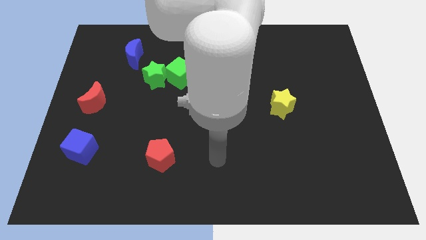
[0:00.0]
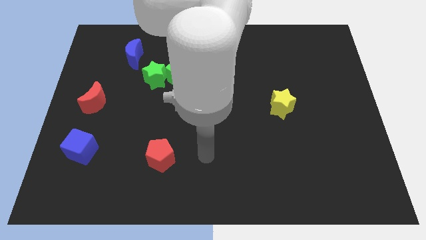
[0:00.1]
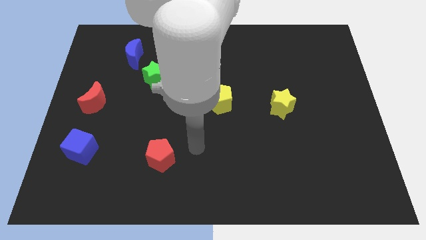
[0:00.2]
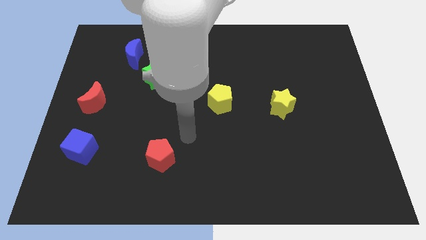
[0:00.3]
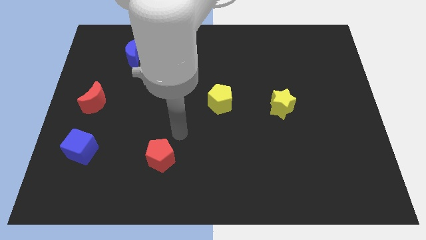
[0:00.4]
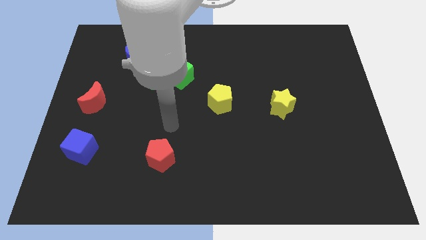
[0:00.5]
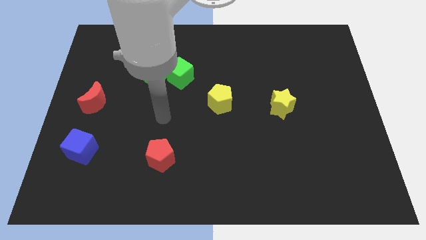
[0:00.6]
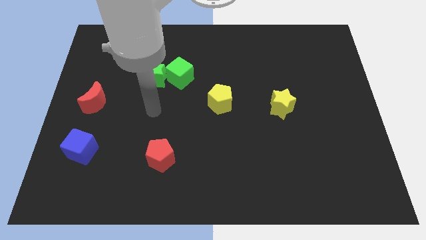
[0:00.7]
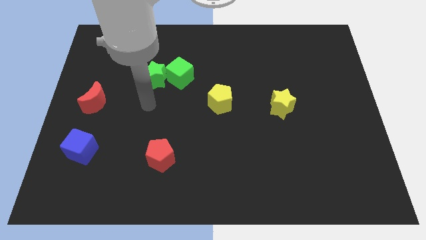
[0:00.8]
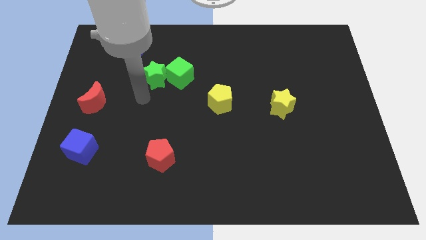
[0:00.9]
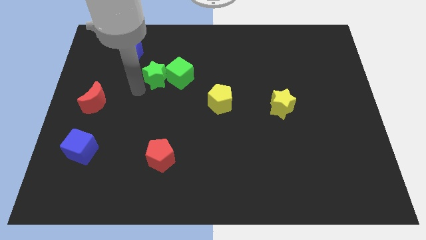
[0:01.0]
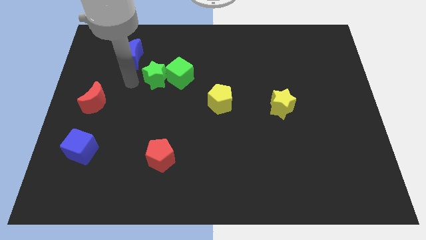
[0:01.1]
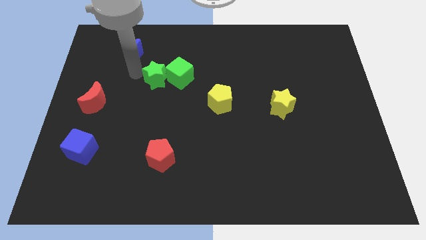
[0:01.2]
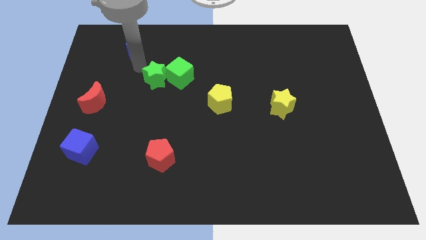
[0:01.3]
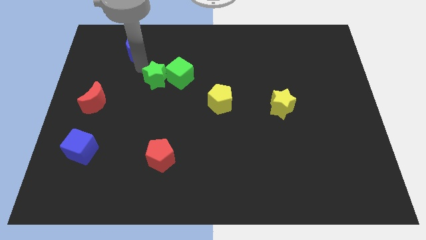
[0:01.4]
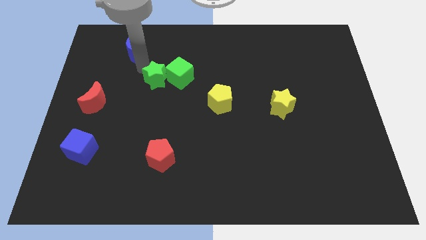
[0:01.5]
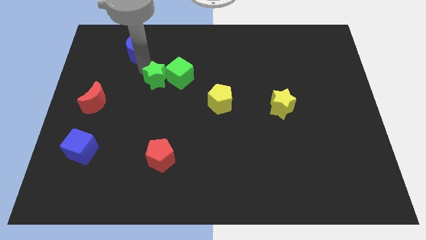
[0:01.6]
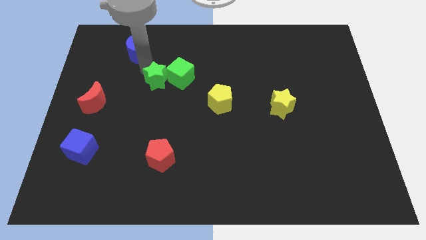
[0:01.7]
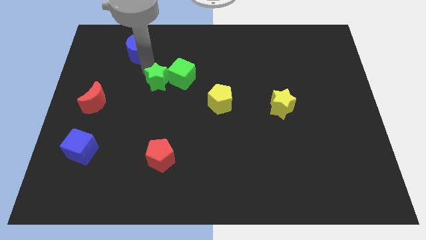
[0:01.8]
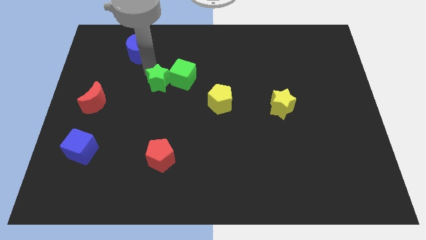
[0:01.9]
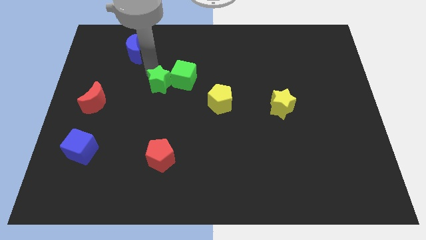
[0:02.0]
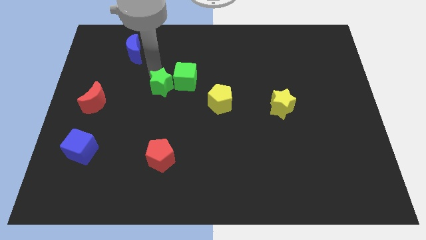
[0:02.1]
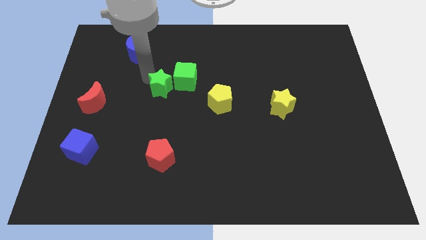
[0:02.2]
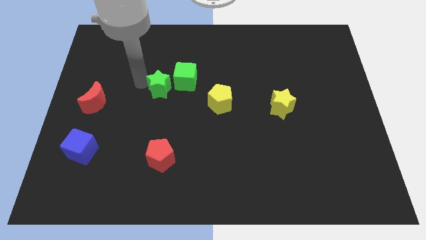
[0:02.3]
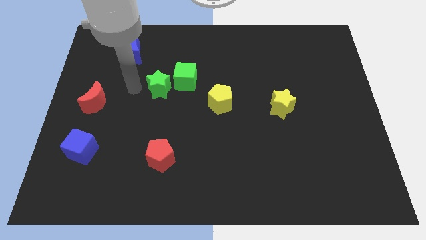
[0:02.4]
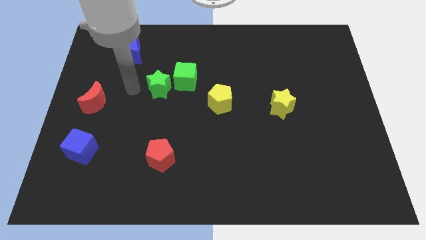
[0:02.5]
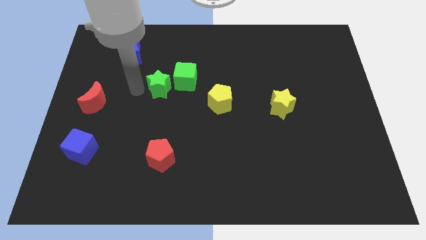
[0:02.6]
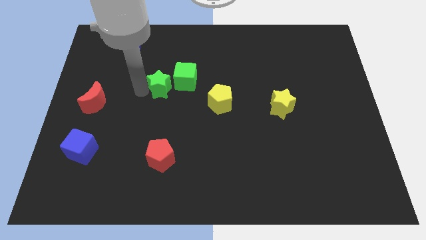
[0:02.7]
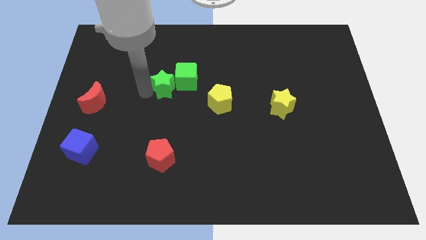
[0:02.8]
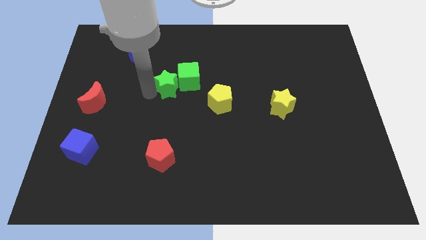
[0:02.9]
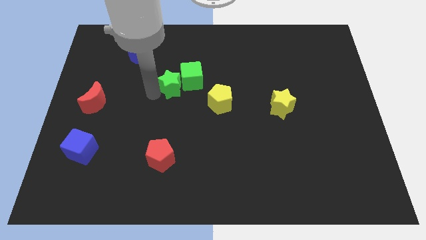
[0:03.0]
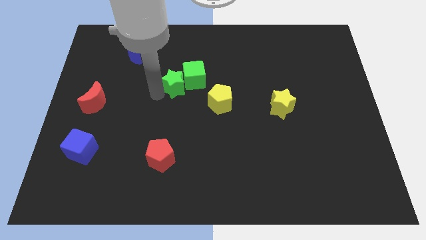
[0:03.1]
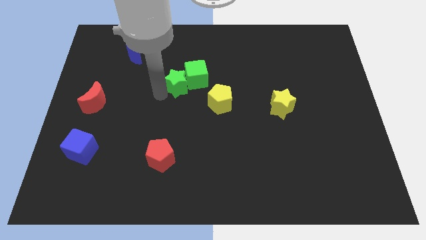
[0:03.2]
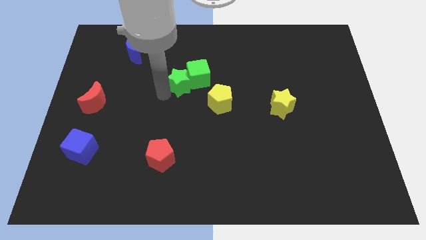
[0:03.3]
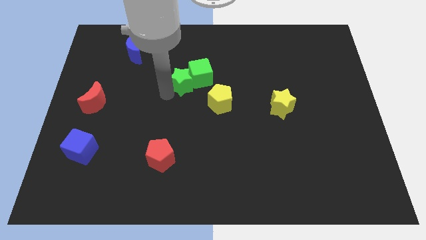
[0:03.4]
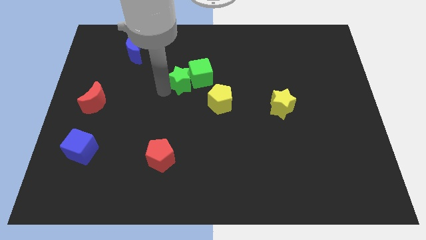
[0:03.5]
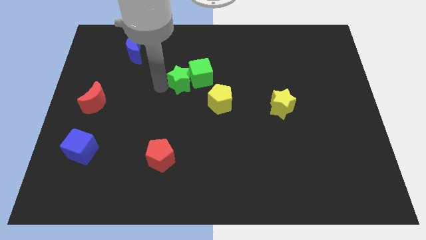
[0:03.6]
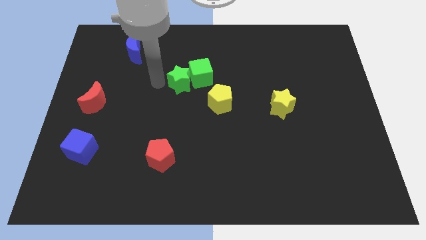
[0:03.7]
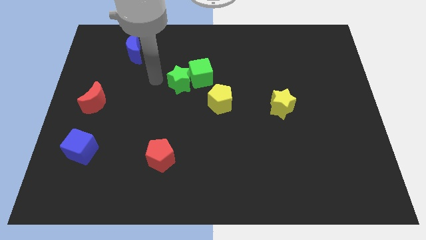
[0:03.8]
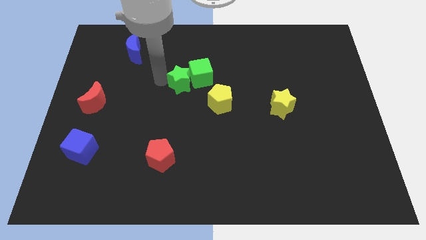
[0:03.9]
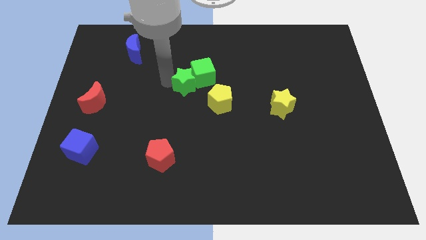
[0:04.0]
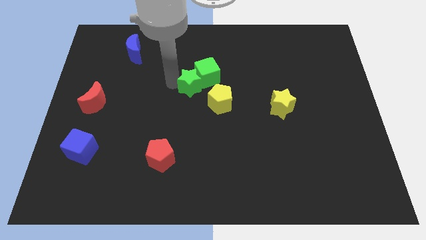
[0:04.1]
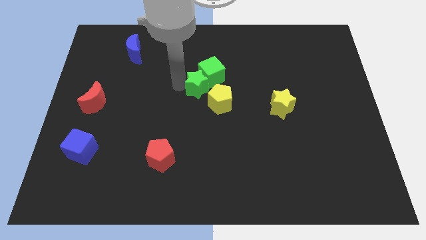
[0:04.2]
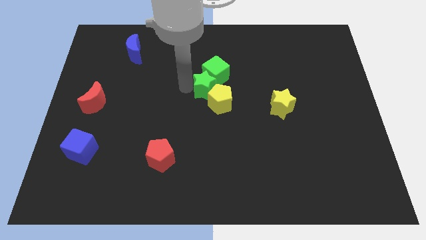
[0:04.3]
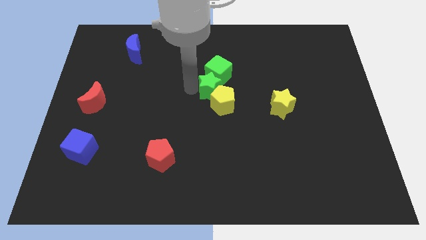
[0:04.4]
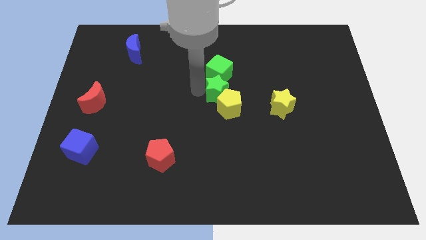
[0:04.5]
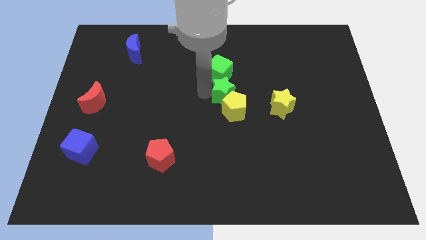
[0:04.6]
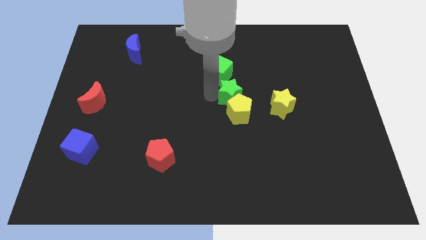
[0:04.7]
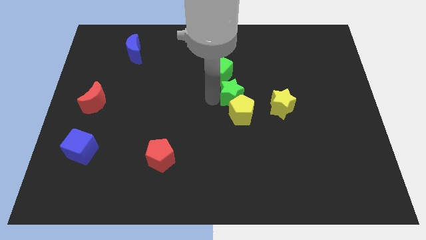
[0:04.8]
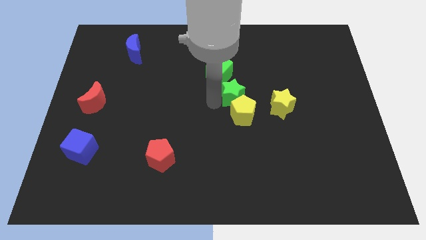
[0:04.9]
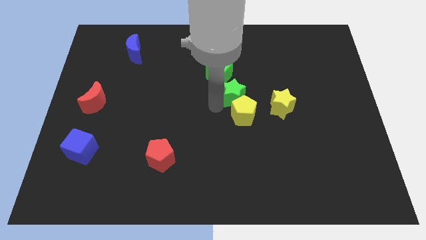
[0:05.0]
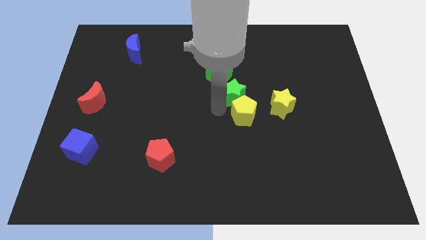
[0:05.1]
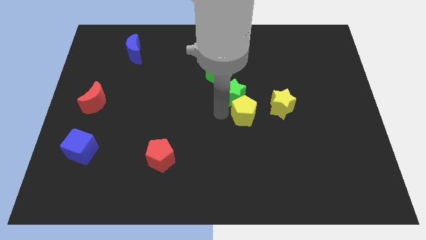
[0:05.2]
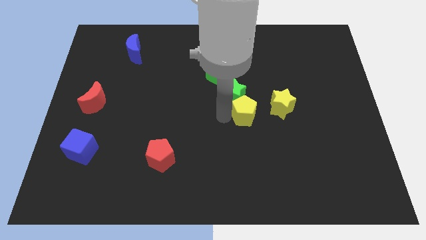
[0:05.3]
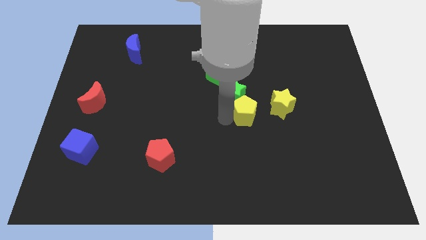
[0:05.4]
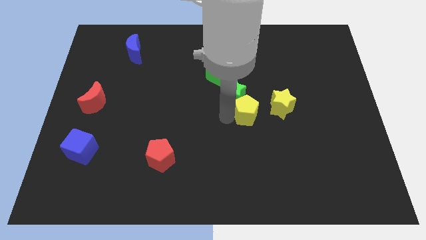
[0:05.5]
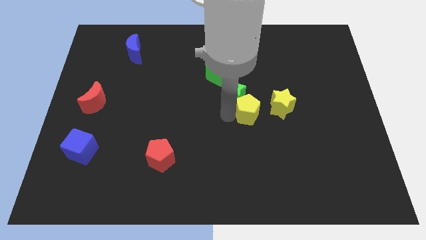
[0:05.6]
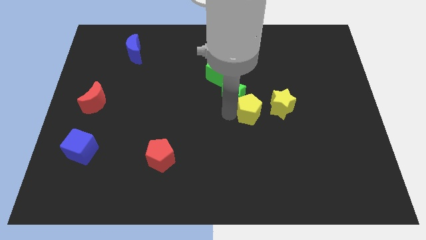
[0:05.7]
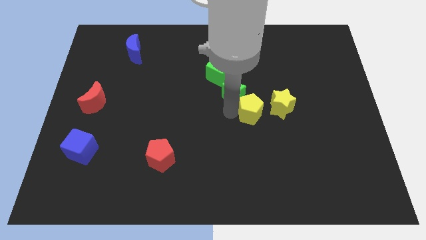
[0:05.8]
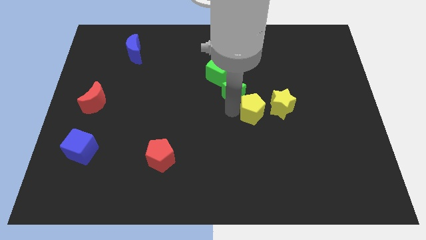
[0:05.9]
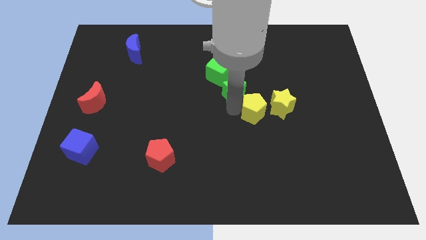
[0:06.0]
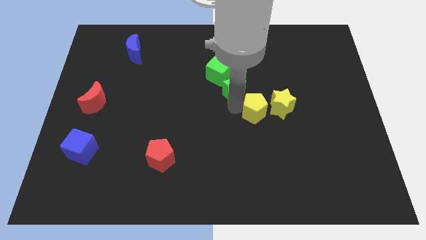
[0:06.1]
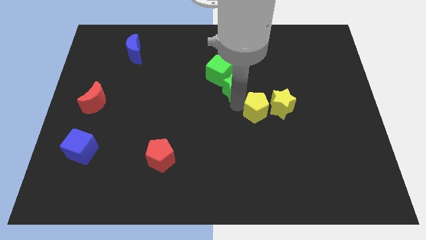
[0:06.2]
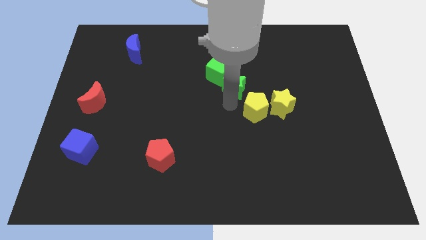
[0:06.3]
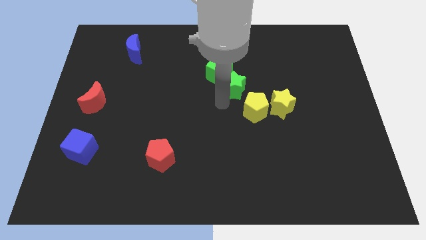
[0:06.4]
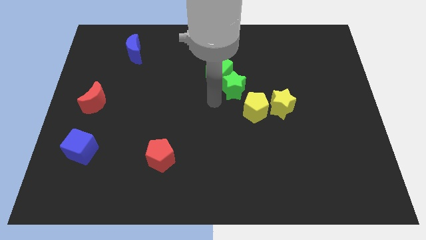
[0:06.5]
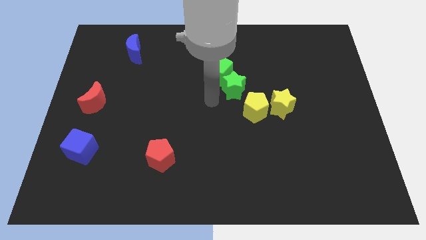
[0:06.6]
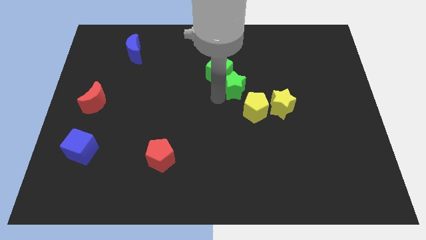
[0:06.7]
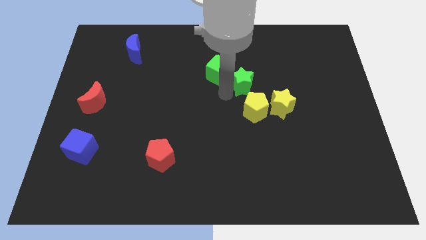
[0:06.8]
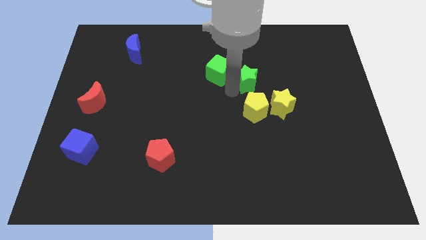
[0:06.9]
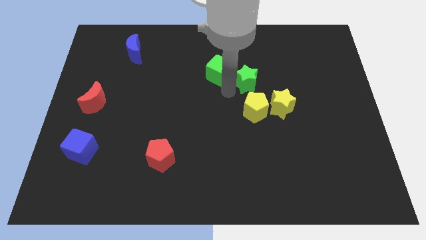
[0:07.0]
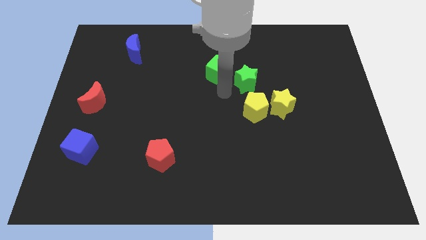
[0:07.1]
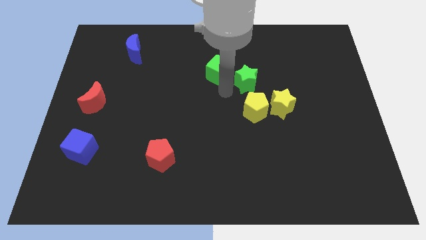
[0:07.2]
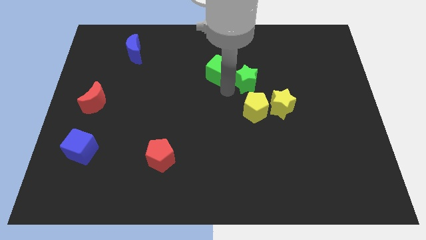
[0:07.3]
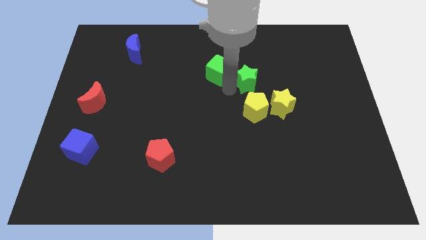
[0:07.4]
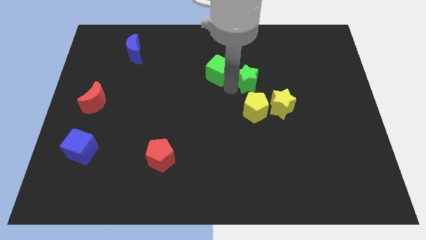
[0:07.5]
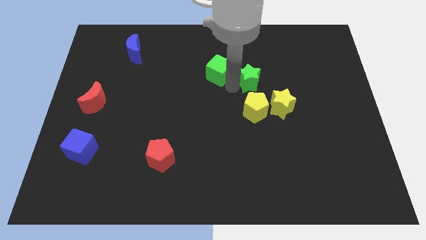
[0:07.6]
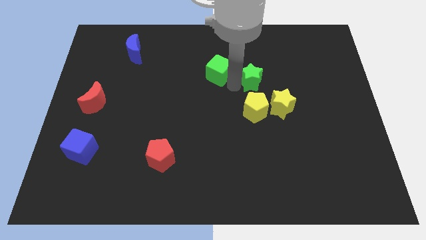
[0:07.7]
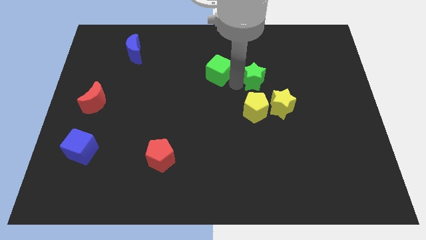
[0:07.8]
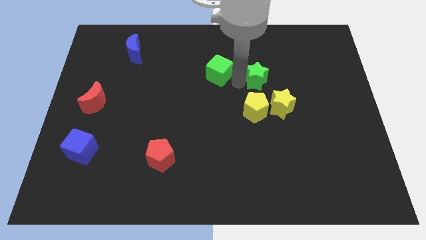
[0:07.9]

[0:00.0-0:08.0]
slide the green star to the top side of the yellow star
